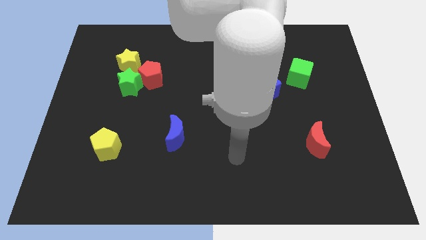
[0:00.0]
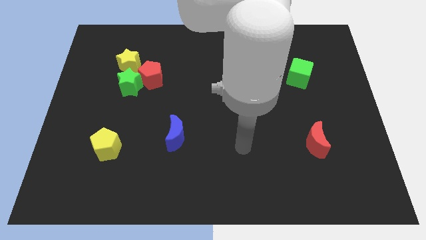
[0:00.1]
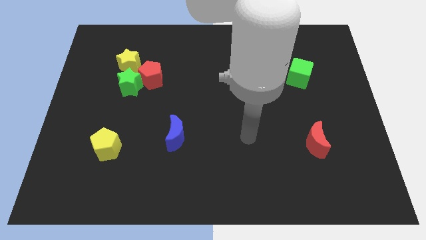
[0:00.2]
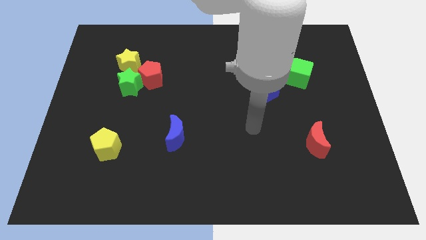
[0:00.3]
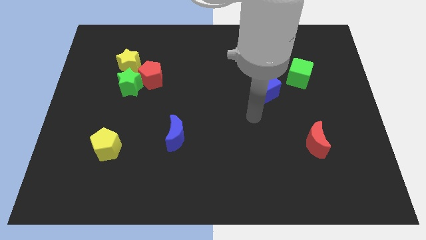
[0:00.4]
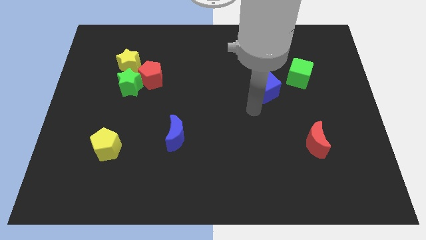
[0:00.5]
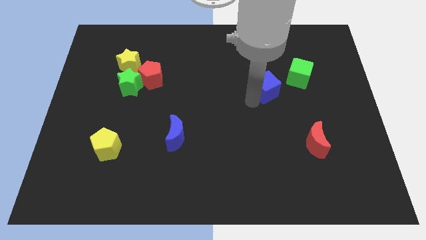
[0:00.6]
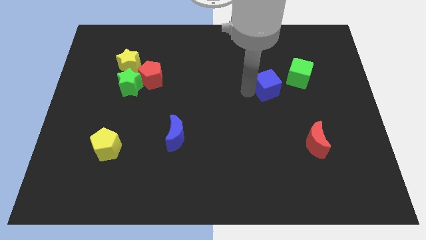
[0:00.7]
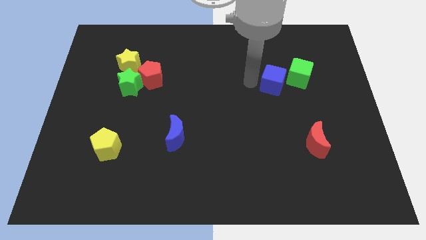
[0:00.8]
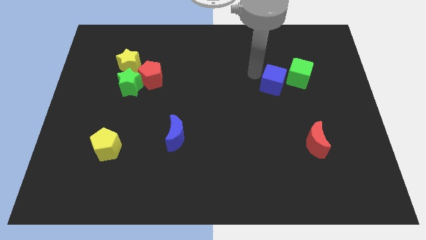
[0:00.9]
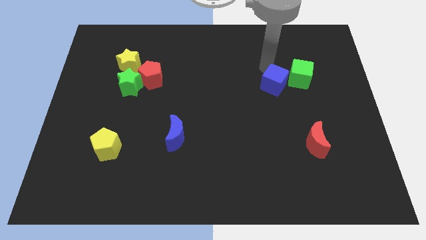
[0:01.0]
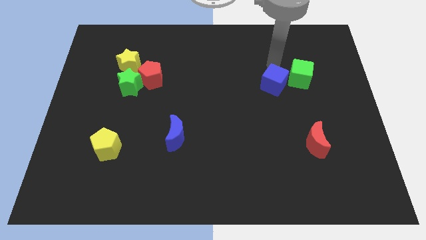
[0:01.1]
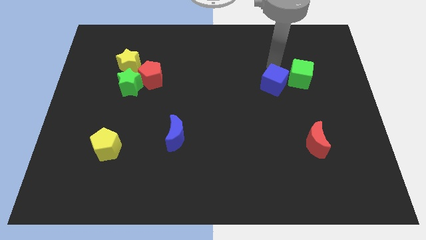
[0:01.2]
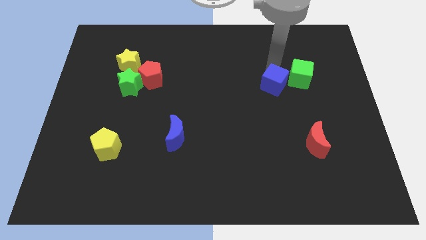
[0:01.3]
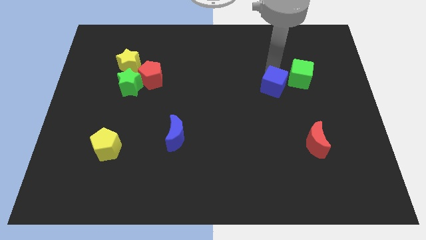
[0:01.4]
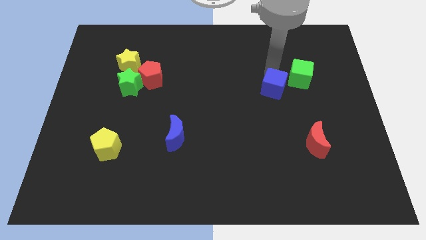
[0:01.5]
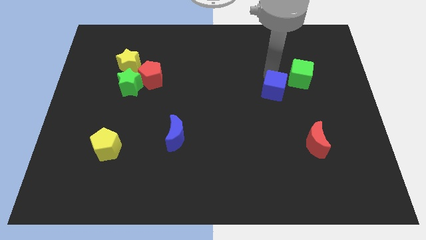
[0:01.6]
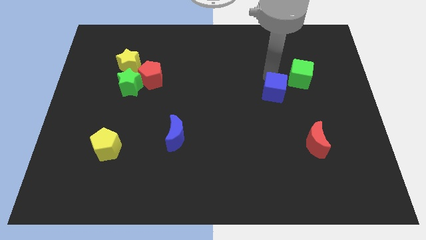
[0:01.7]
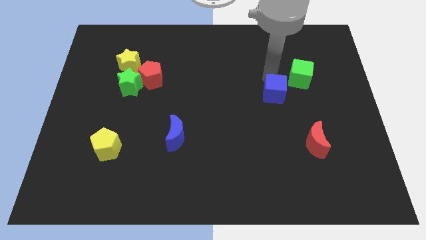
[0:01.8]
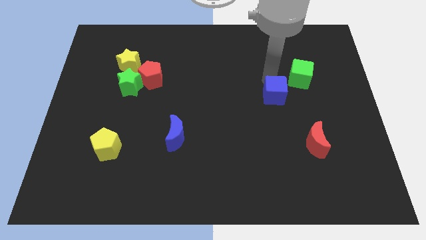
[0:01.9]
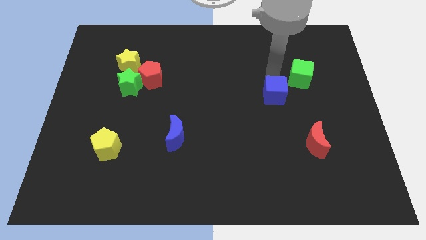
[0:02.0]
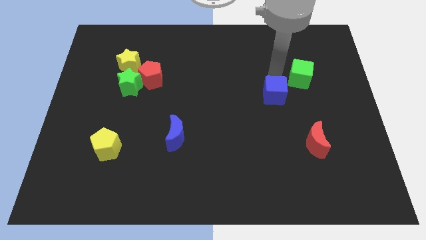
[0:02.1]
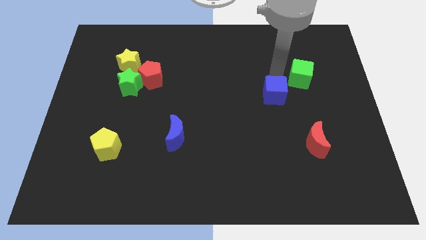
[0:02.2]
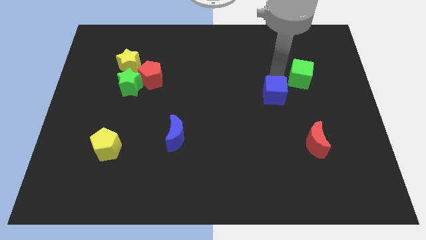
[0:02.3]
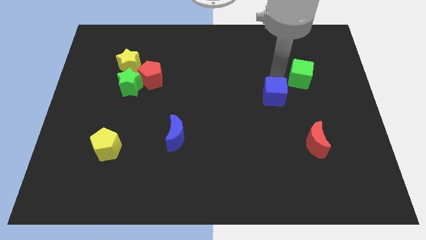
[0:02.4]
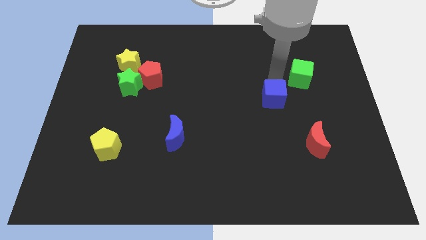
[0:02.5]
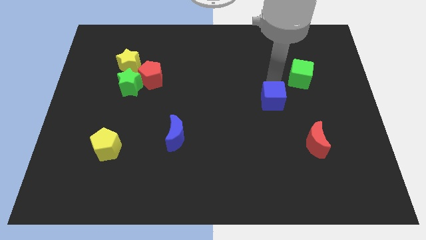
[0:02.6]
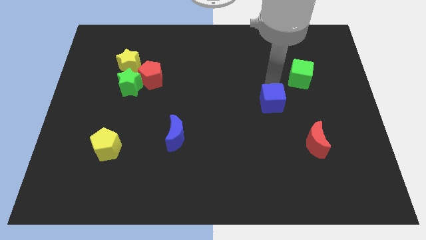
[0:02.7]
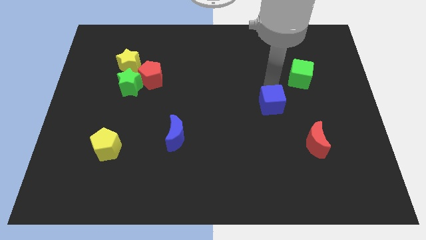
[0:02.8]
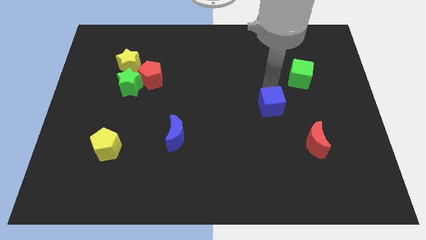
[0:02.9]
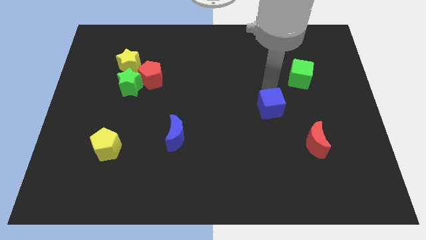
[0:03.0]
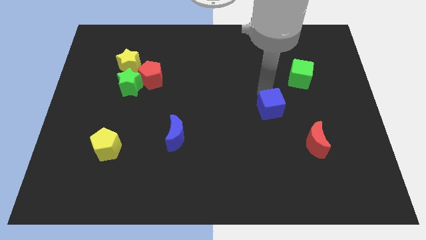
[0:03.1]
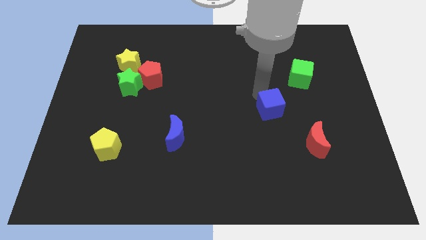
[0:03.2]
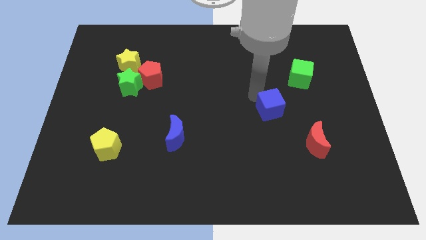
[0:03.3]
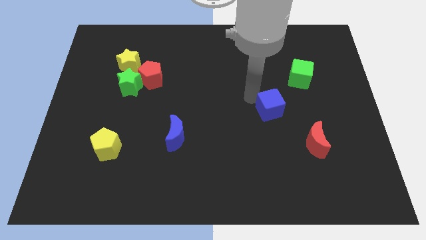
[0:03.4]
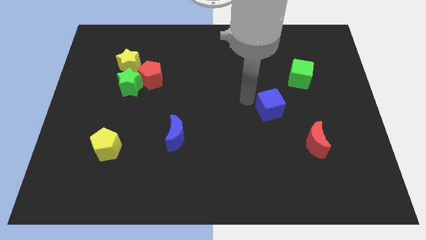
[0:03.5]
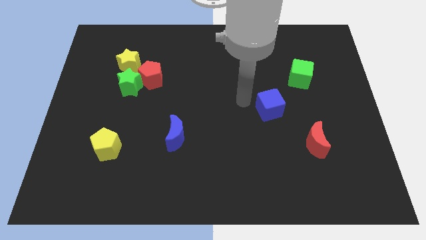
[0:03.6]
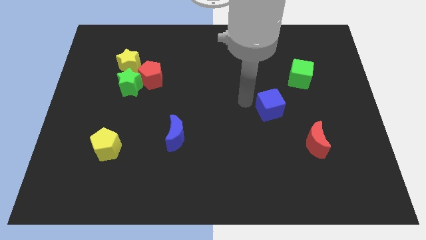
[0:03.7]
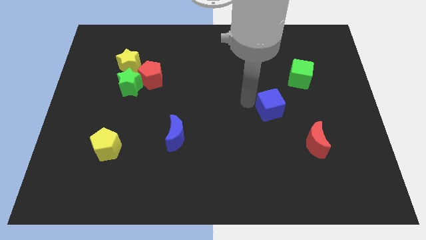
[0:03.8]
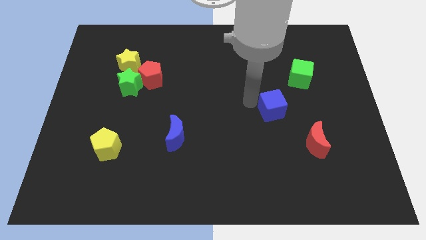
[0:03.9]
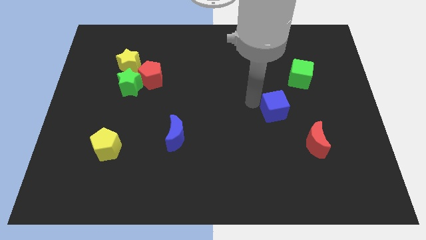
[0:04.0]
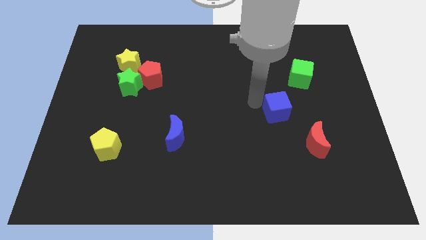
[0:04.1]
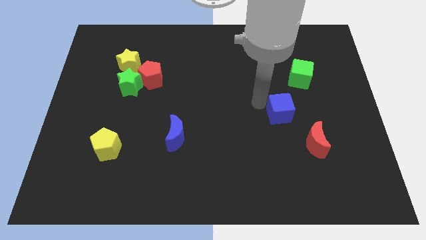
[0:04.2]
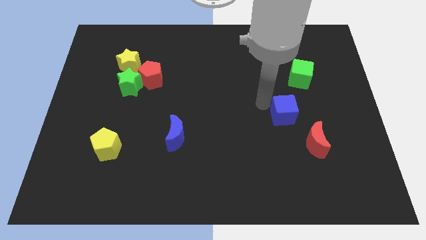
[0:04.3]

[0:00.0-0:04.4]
slightly push the blue cube down and then right

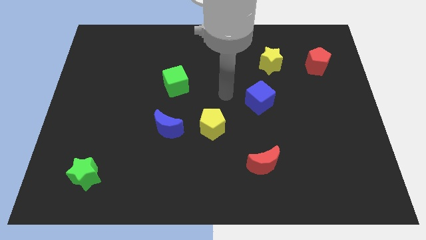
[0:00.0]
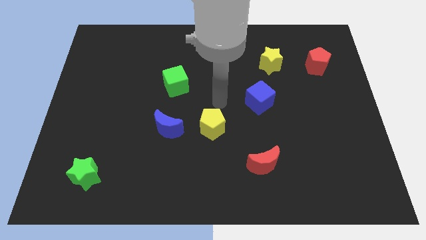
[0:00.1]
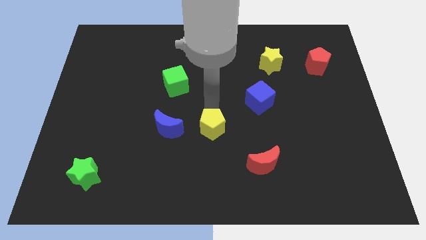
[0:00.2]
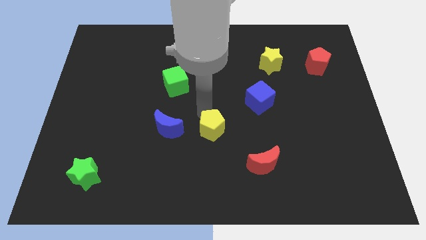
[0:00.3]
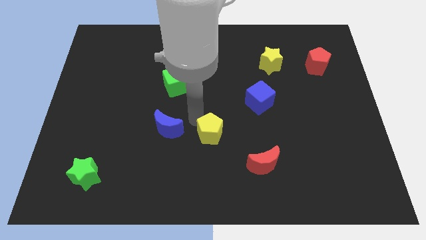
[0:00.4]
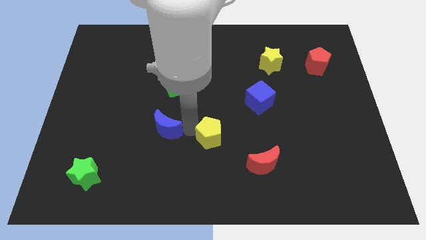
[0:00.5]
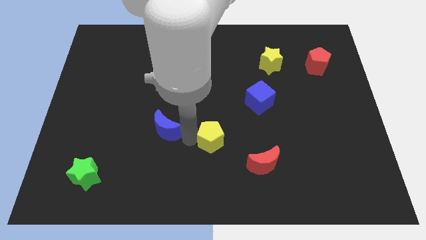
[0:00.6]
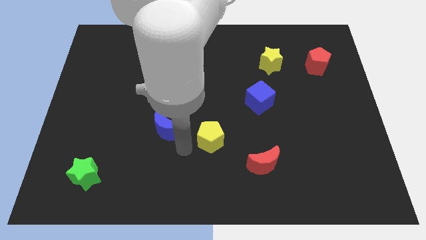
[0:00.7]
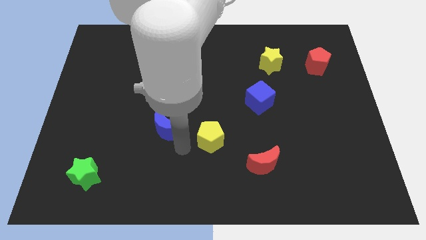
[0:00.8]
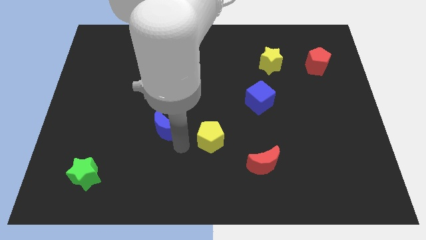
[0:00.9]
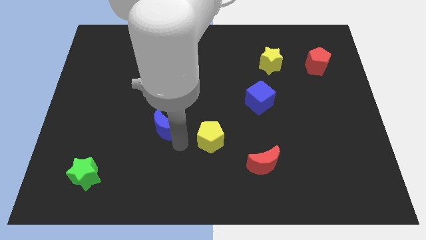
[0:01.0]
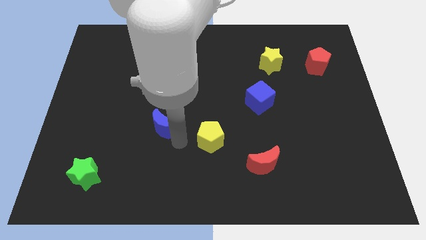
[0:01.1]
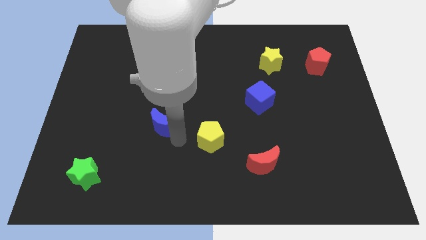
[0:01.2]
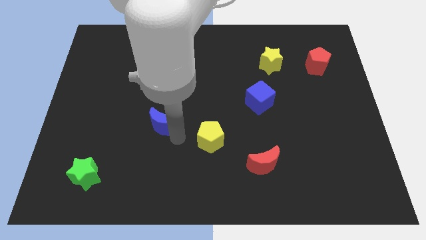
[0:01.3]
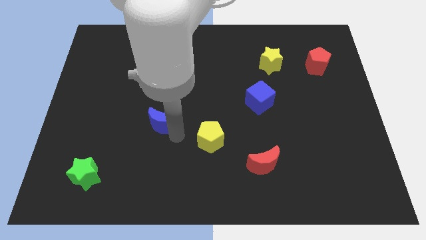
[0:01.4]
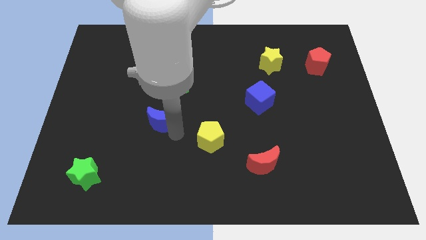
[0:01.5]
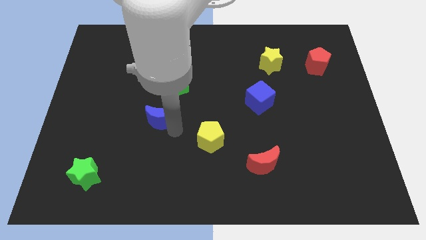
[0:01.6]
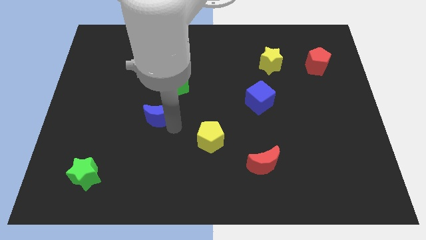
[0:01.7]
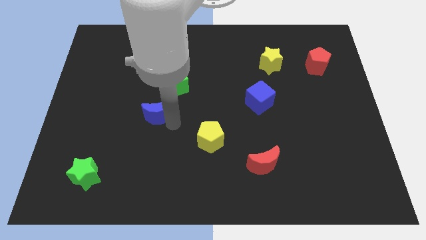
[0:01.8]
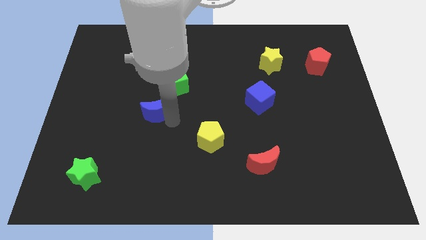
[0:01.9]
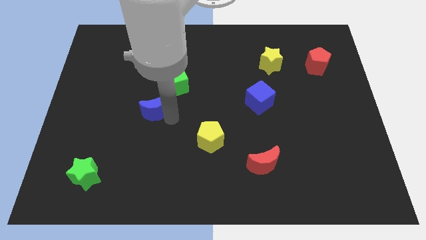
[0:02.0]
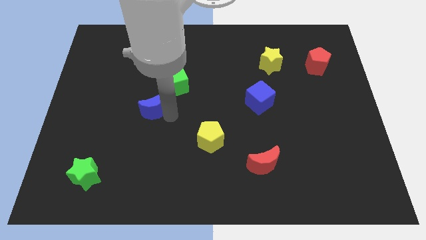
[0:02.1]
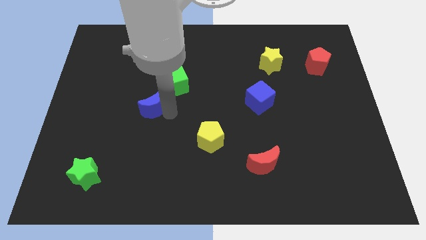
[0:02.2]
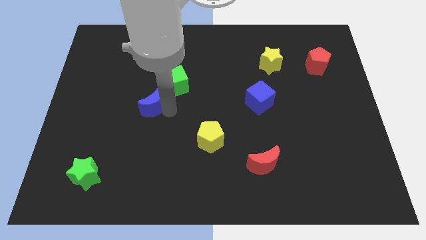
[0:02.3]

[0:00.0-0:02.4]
push the blue moon slightly diagonally up and left

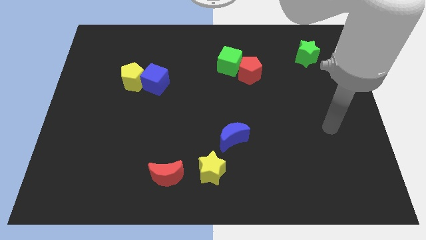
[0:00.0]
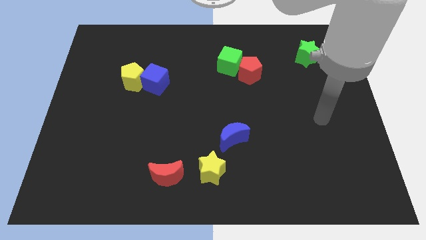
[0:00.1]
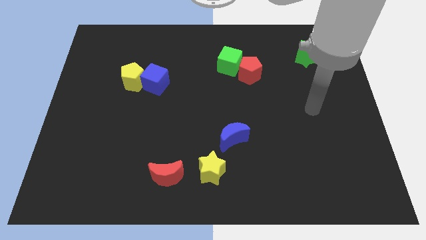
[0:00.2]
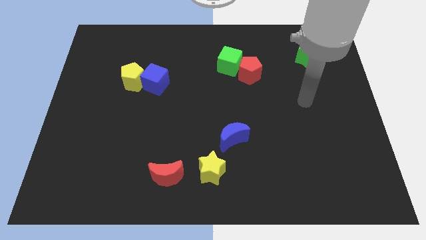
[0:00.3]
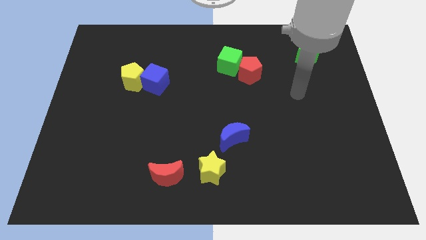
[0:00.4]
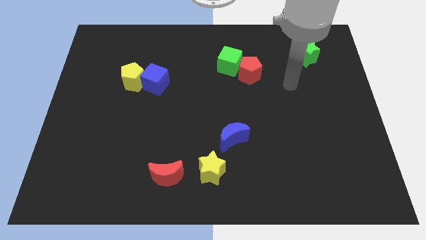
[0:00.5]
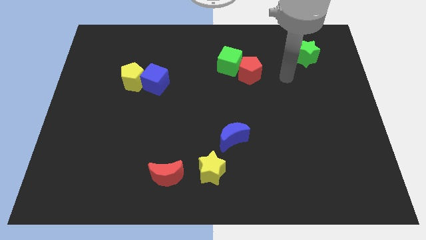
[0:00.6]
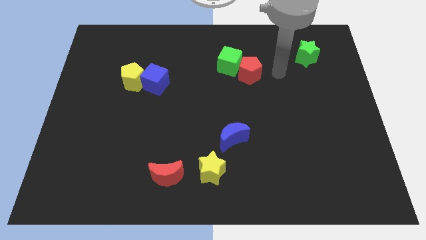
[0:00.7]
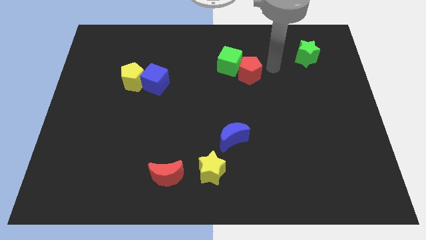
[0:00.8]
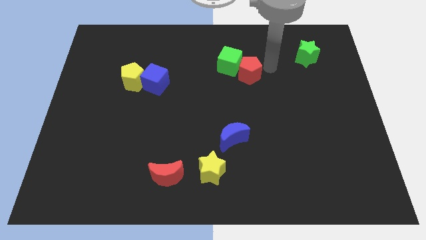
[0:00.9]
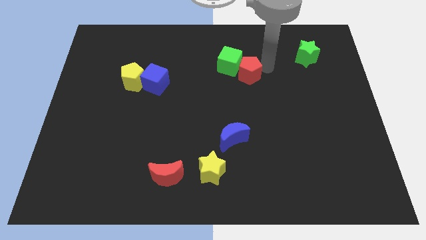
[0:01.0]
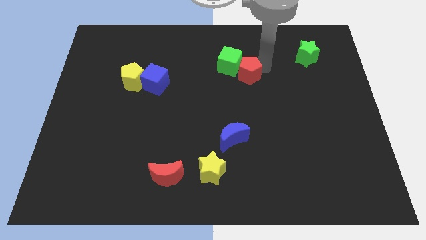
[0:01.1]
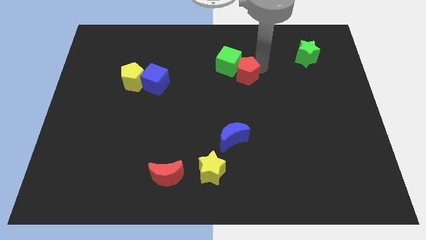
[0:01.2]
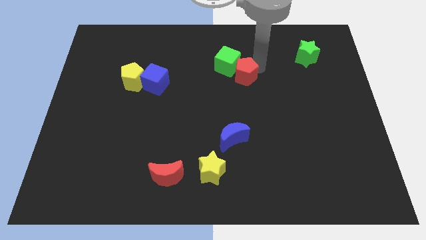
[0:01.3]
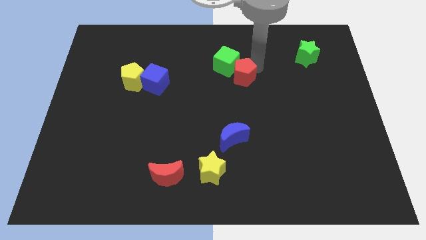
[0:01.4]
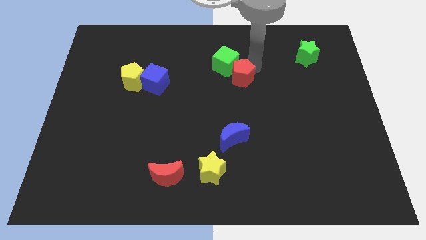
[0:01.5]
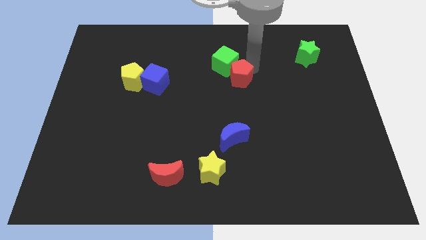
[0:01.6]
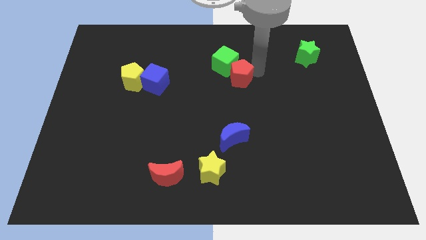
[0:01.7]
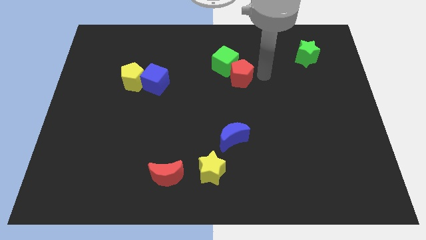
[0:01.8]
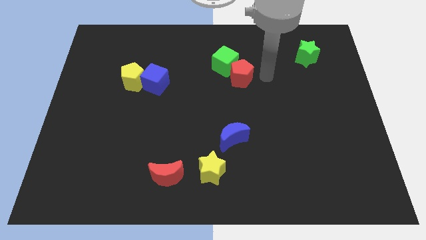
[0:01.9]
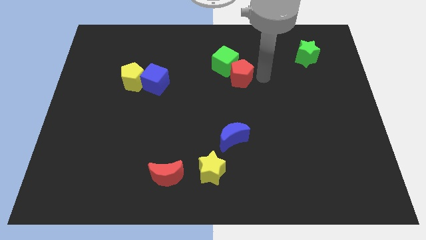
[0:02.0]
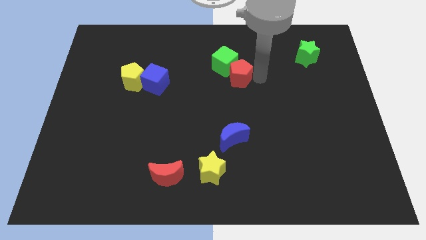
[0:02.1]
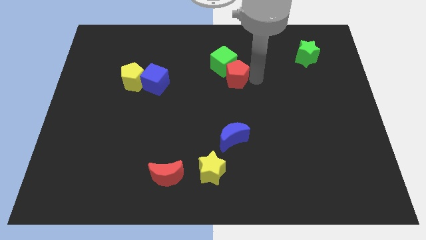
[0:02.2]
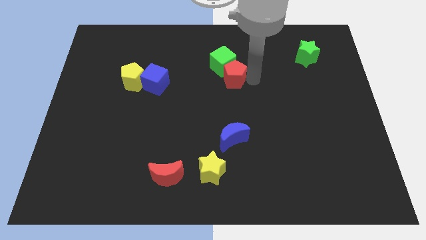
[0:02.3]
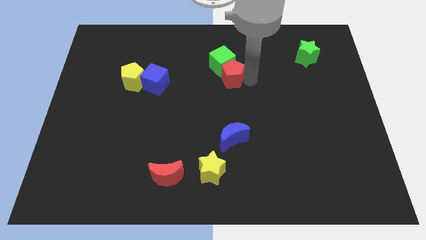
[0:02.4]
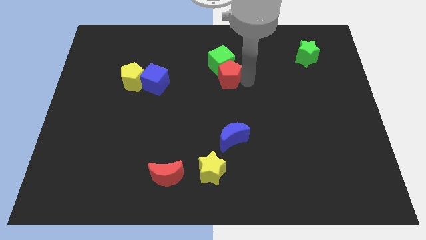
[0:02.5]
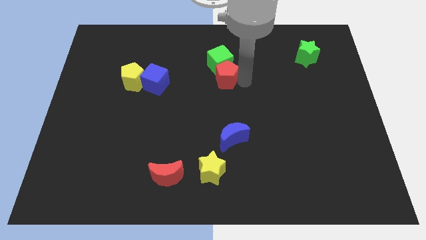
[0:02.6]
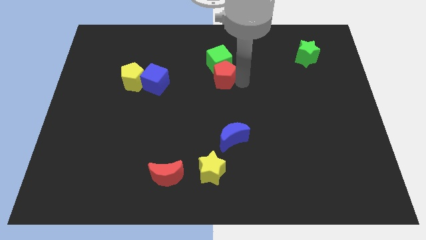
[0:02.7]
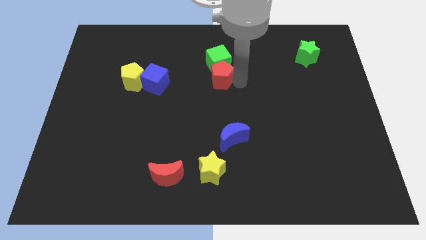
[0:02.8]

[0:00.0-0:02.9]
slide the red pentagon a little left
